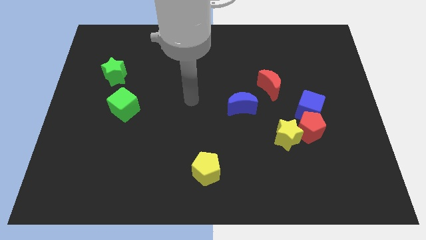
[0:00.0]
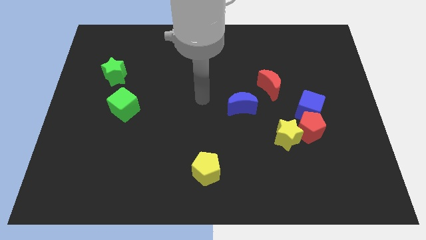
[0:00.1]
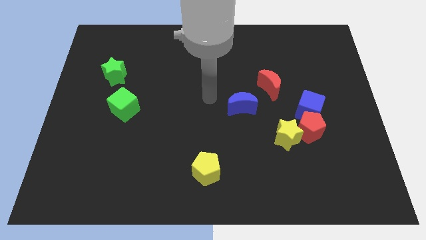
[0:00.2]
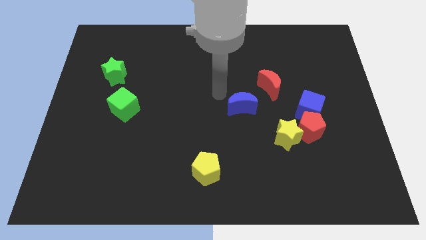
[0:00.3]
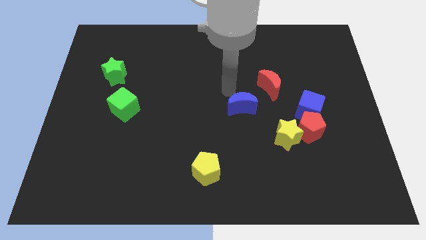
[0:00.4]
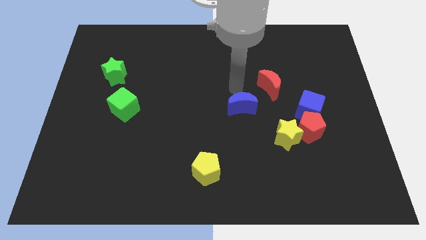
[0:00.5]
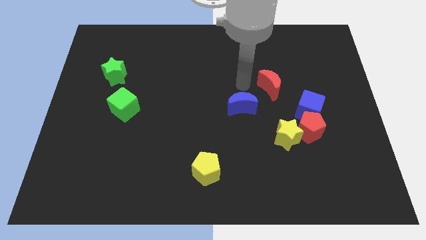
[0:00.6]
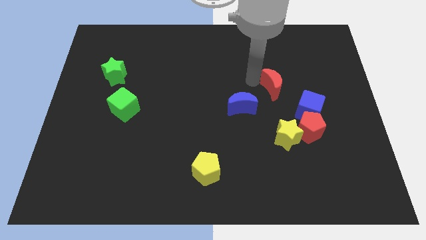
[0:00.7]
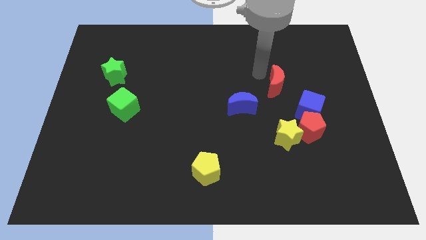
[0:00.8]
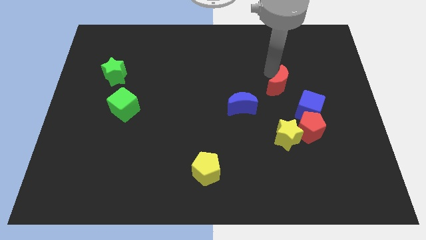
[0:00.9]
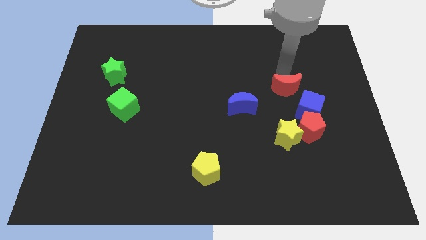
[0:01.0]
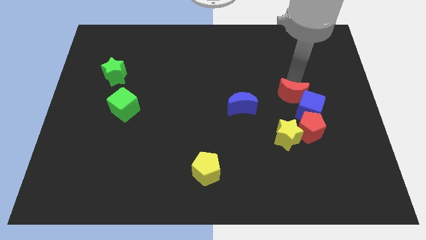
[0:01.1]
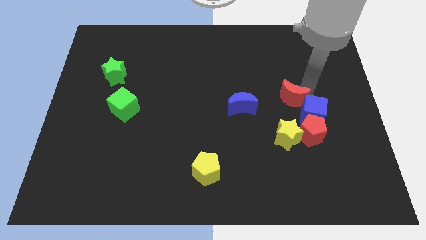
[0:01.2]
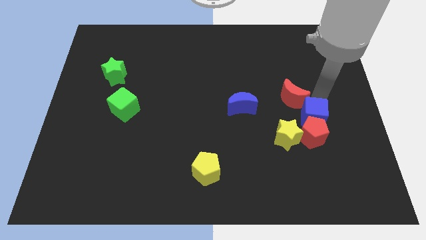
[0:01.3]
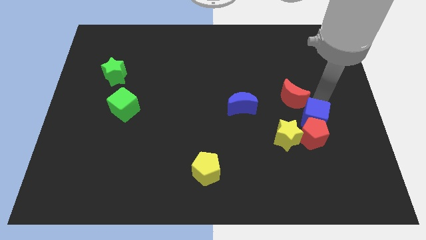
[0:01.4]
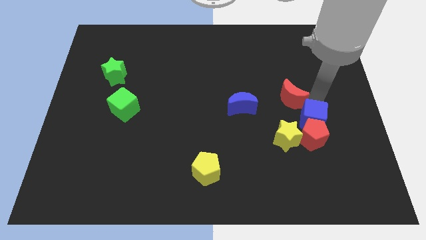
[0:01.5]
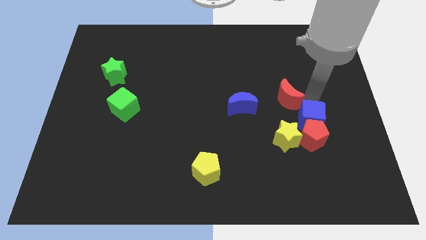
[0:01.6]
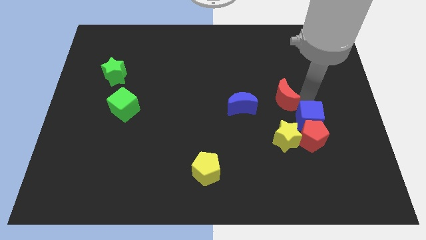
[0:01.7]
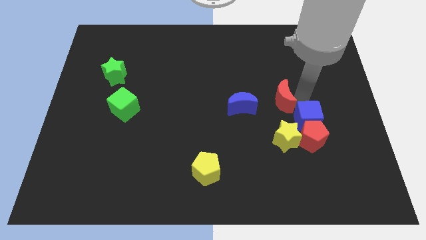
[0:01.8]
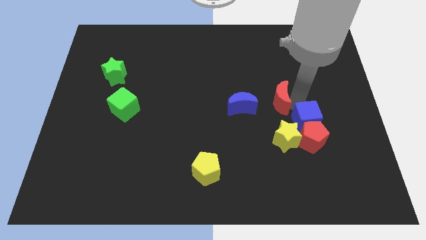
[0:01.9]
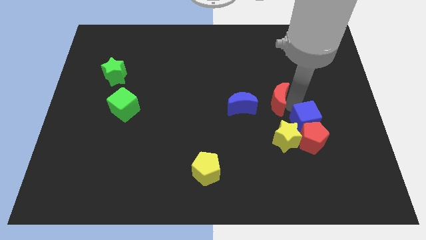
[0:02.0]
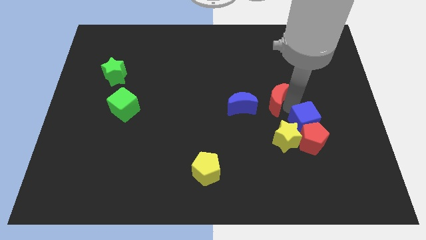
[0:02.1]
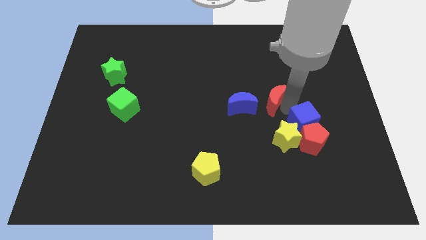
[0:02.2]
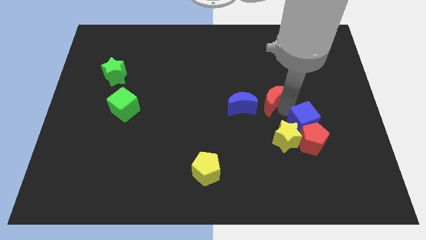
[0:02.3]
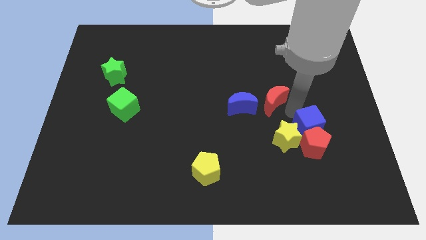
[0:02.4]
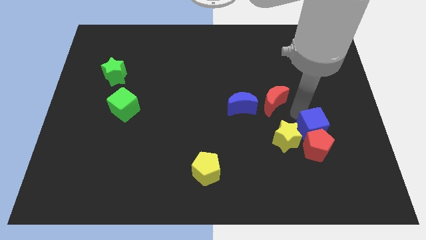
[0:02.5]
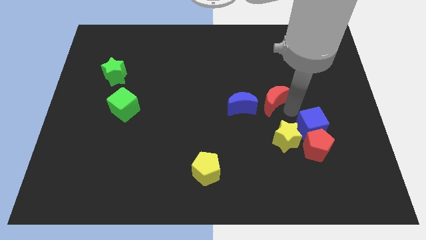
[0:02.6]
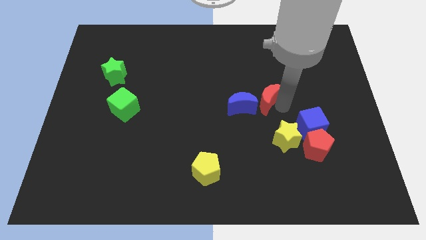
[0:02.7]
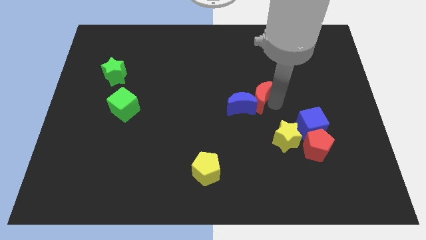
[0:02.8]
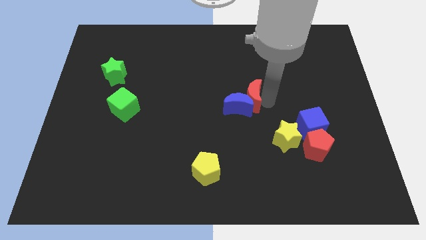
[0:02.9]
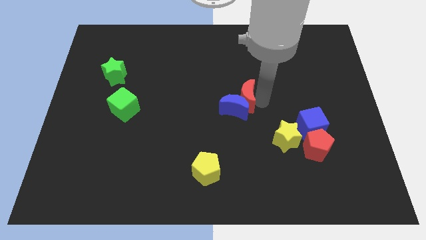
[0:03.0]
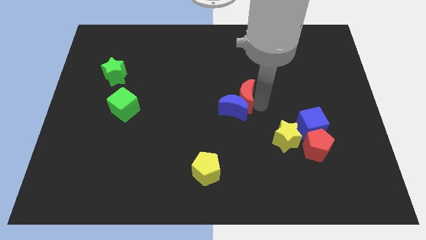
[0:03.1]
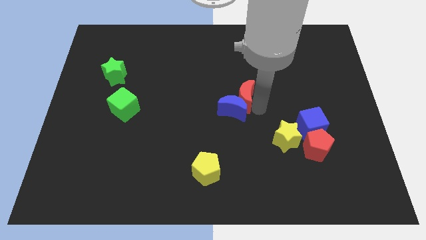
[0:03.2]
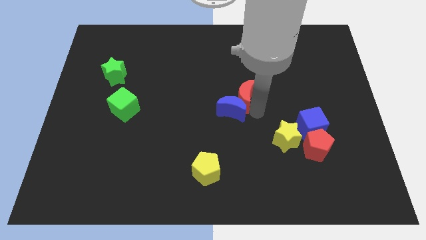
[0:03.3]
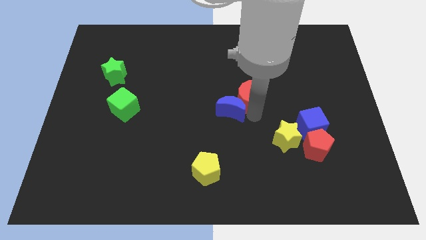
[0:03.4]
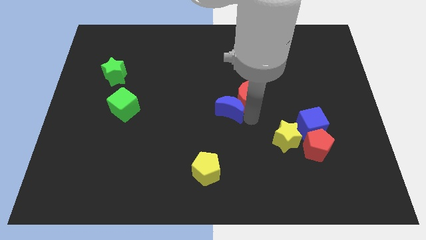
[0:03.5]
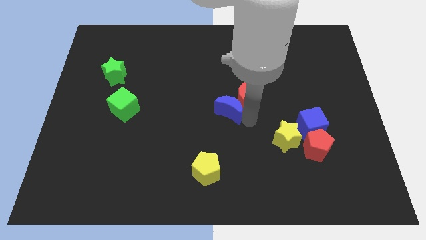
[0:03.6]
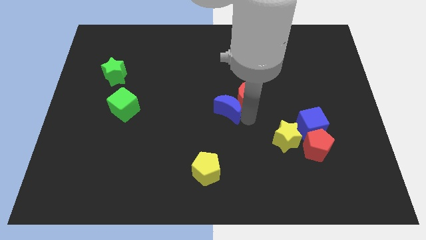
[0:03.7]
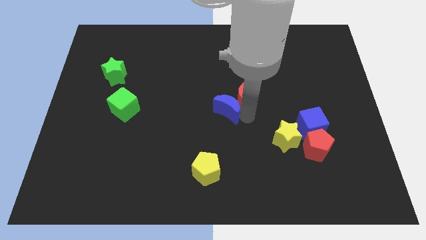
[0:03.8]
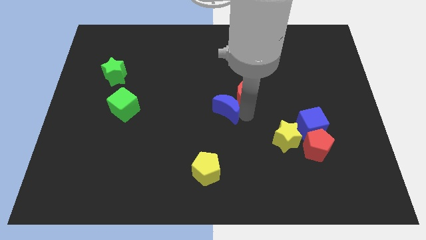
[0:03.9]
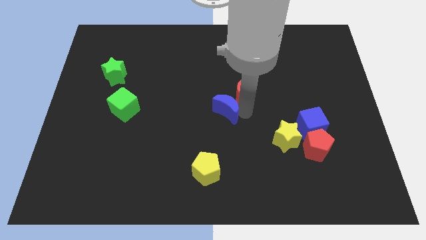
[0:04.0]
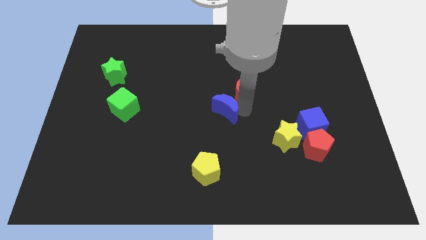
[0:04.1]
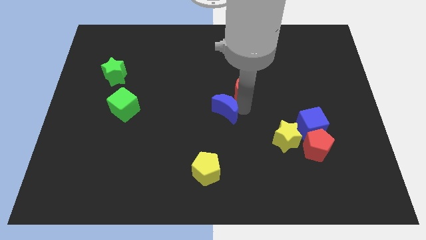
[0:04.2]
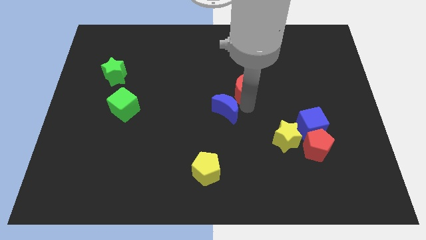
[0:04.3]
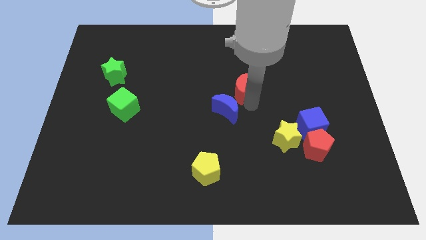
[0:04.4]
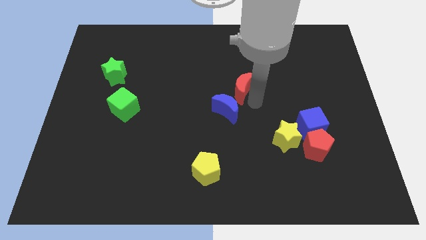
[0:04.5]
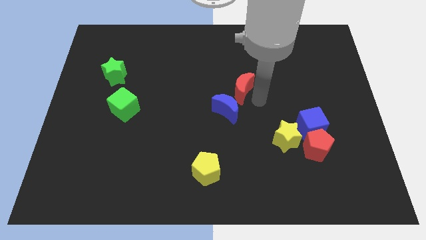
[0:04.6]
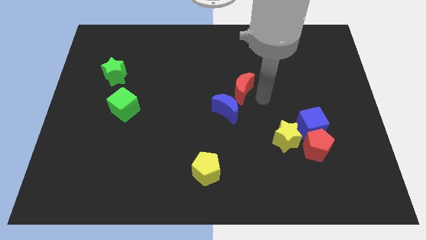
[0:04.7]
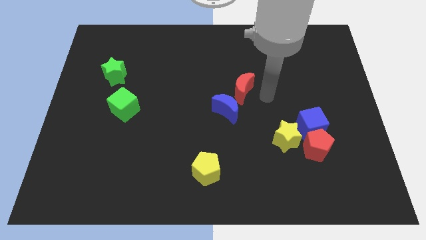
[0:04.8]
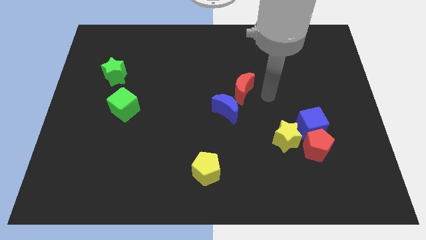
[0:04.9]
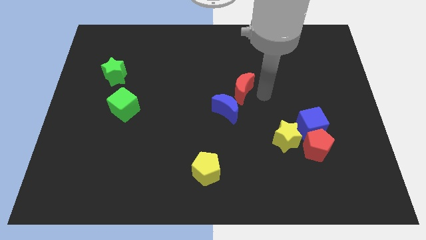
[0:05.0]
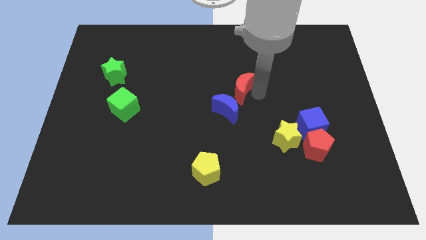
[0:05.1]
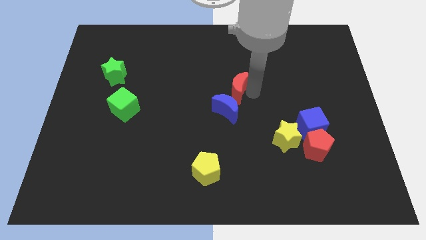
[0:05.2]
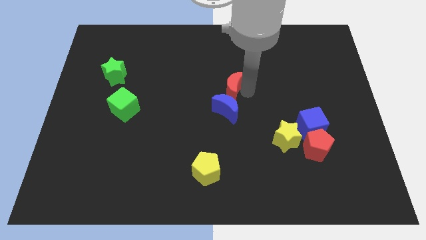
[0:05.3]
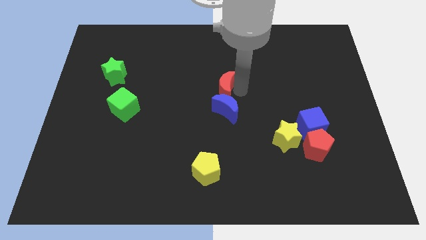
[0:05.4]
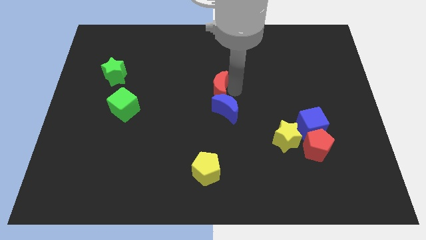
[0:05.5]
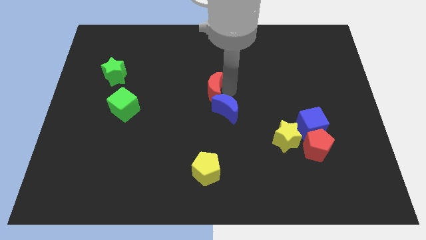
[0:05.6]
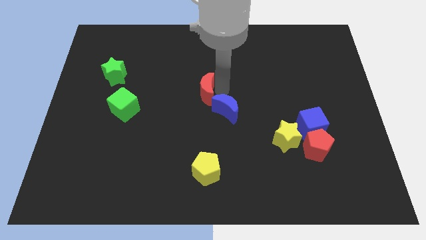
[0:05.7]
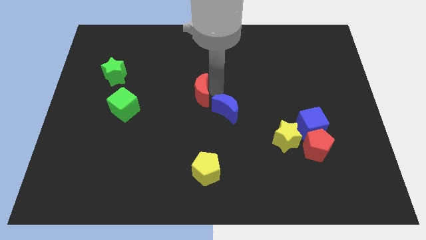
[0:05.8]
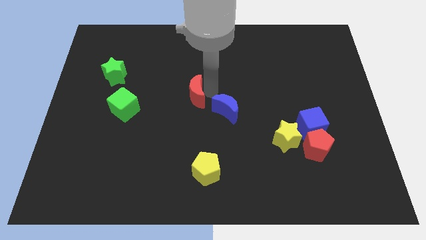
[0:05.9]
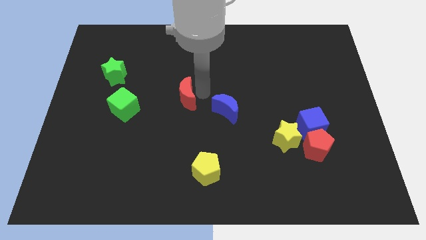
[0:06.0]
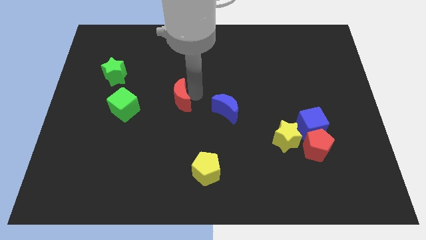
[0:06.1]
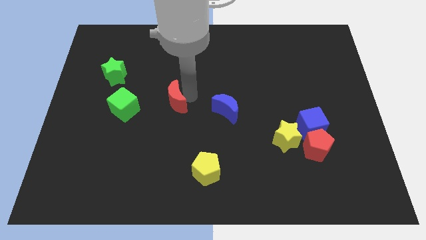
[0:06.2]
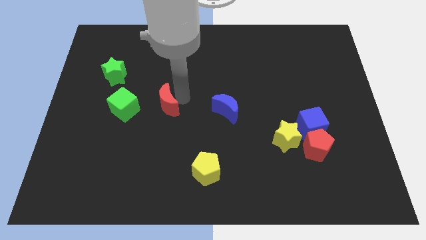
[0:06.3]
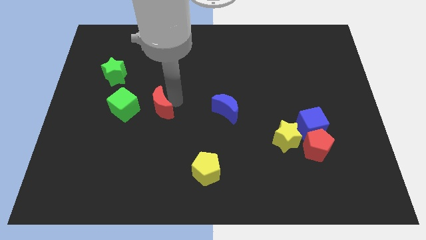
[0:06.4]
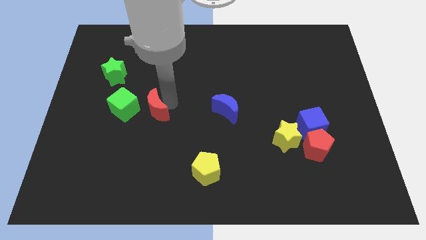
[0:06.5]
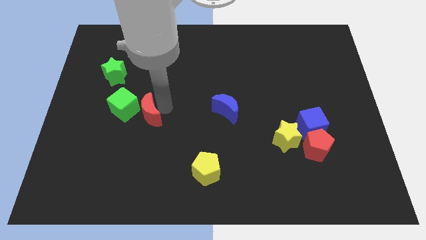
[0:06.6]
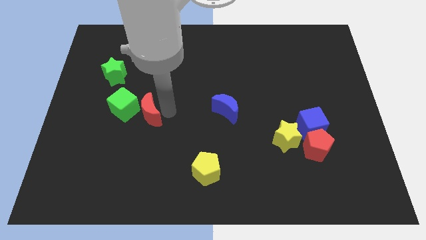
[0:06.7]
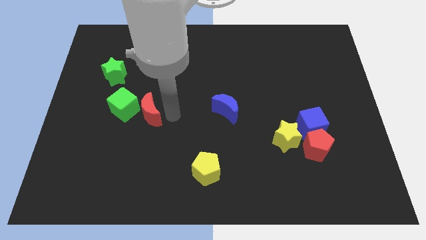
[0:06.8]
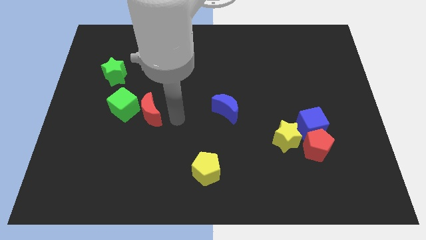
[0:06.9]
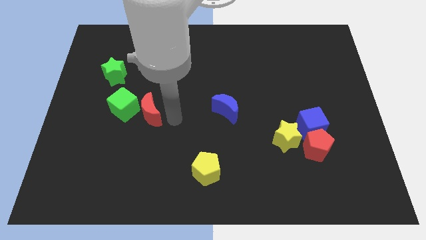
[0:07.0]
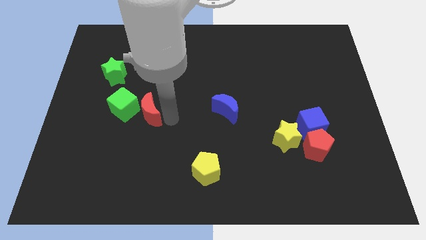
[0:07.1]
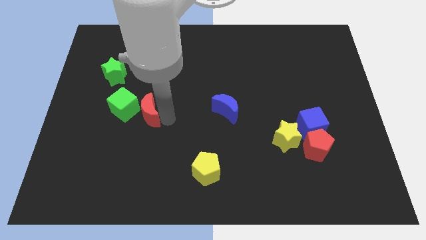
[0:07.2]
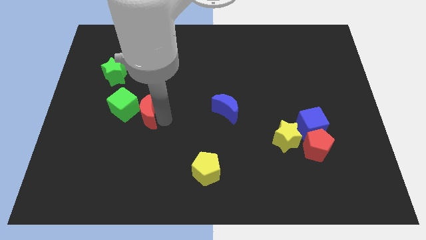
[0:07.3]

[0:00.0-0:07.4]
put the red moon towards the green cube

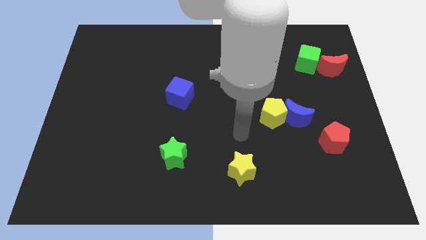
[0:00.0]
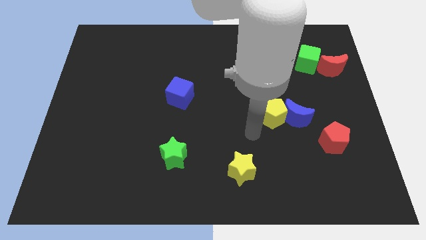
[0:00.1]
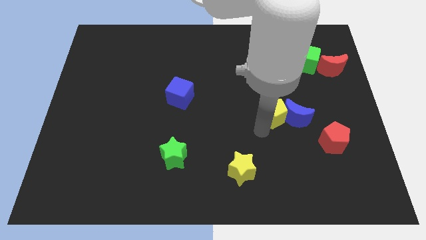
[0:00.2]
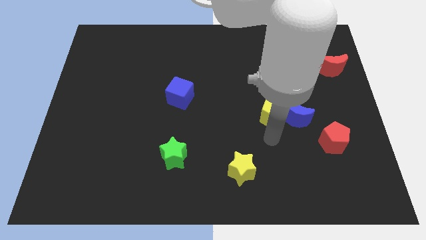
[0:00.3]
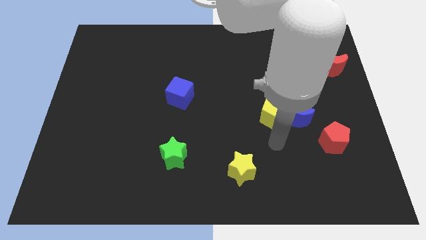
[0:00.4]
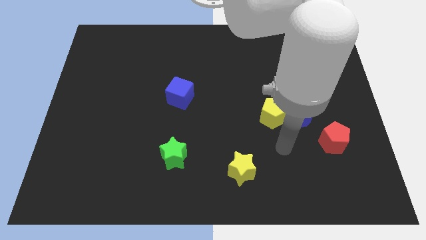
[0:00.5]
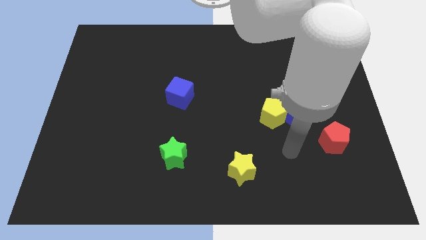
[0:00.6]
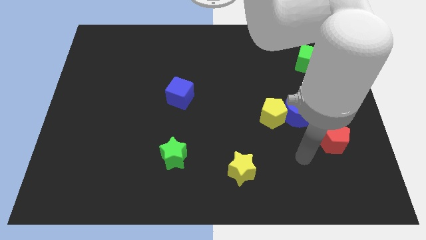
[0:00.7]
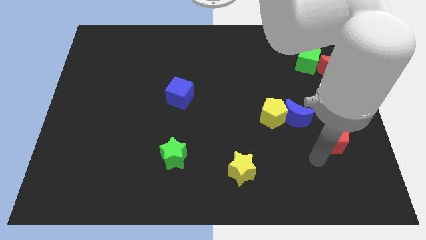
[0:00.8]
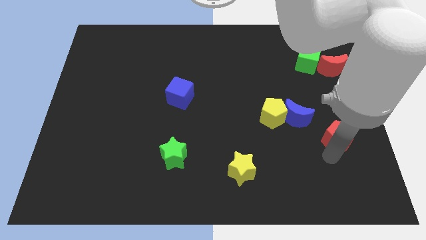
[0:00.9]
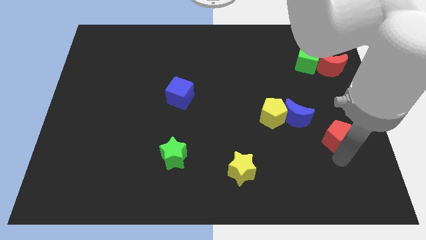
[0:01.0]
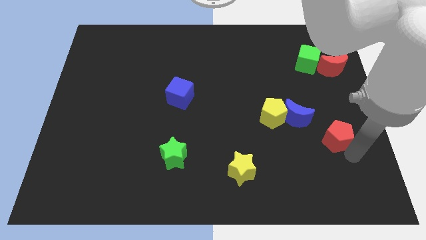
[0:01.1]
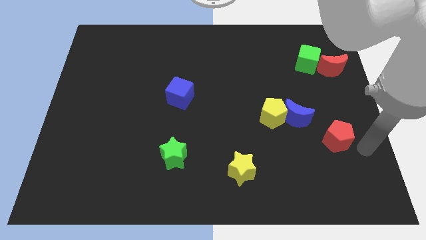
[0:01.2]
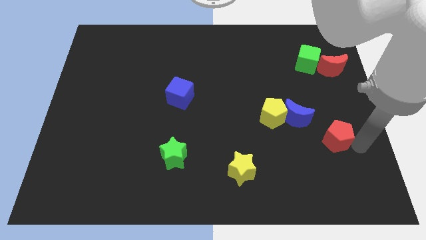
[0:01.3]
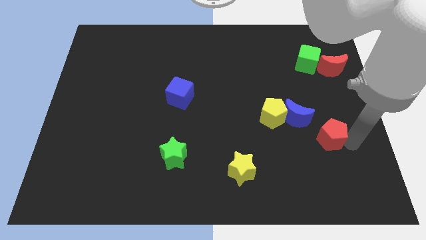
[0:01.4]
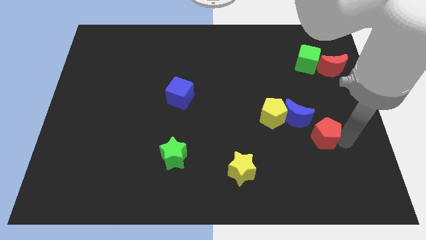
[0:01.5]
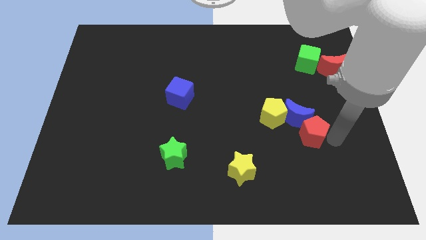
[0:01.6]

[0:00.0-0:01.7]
move the red pentagon next to the blue moon
